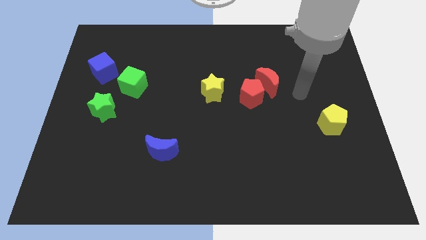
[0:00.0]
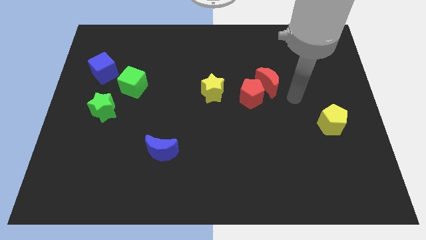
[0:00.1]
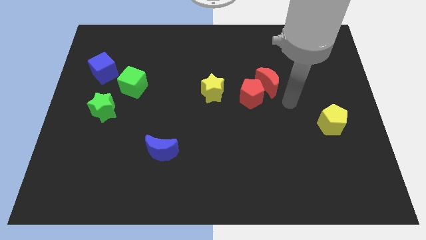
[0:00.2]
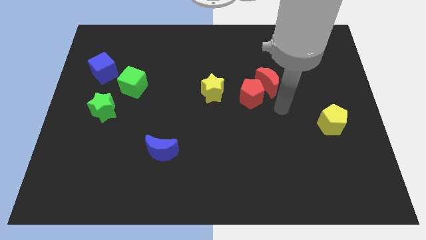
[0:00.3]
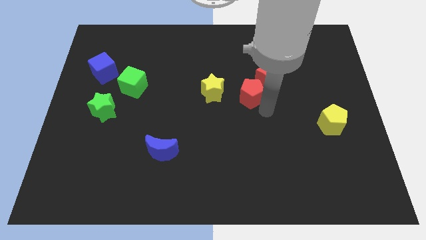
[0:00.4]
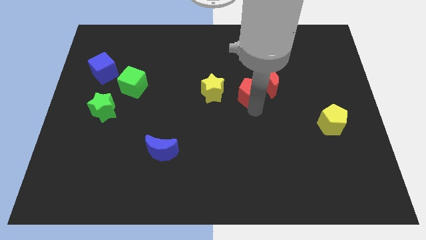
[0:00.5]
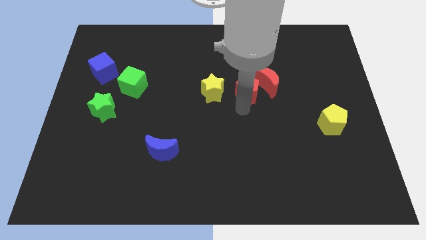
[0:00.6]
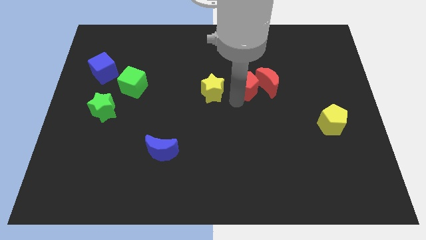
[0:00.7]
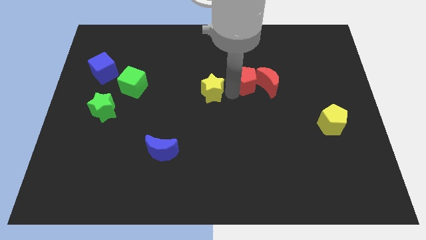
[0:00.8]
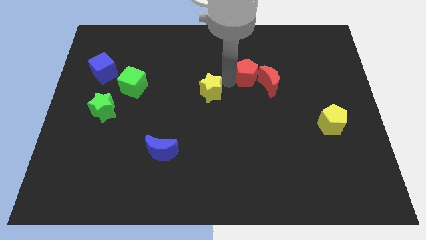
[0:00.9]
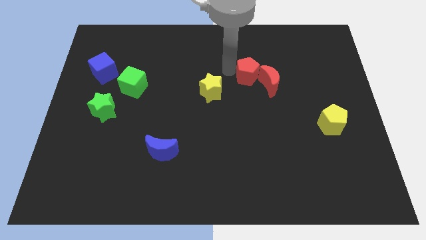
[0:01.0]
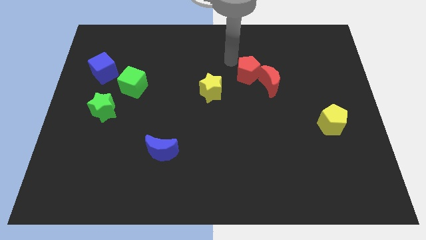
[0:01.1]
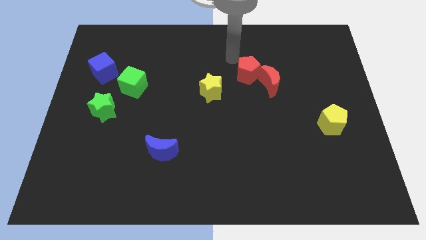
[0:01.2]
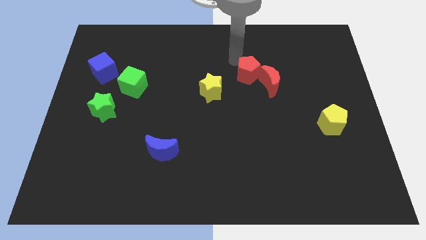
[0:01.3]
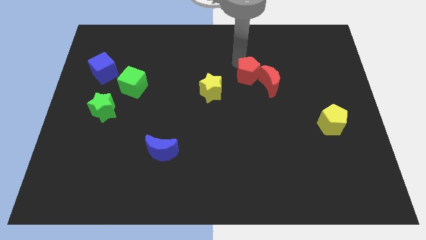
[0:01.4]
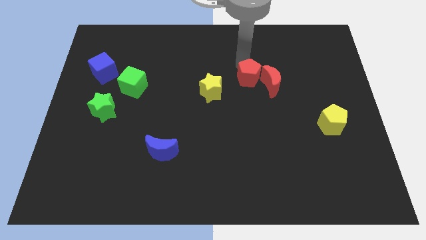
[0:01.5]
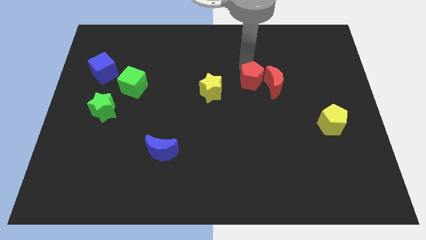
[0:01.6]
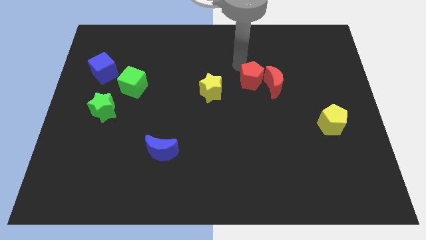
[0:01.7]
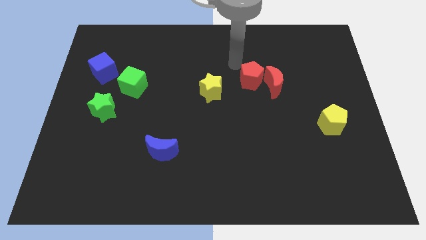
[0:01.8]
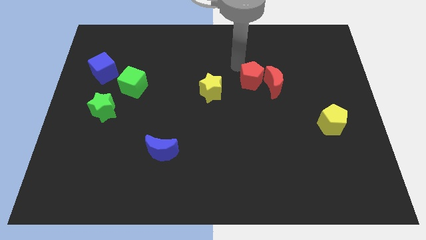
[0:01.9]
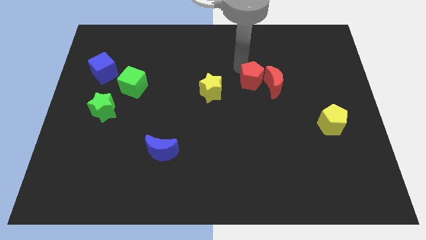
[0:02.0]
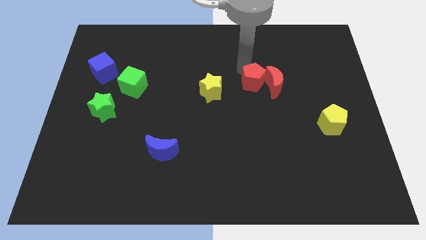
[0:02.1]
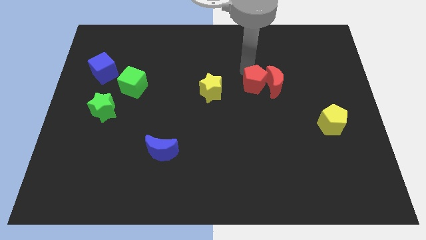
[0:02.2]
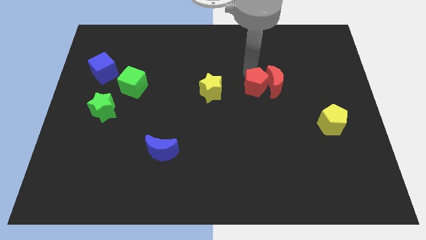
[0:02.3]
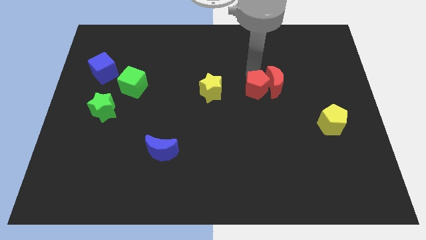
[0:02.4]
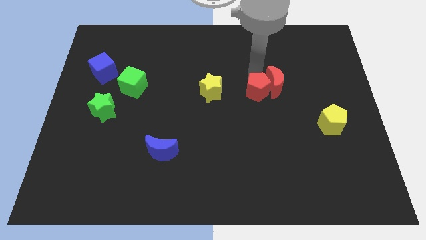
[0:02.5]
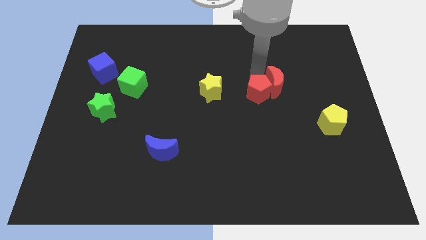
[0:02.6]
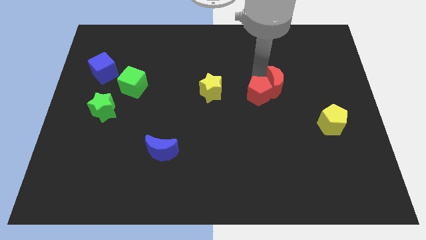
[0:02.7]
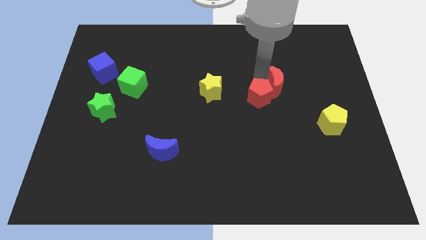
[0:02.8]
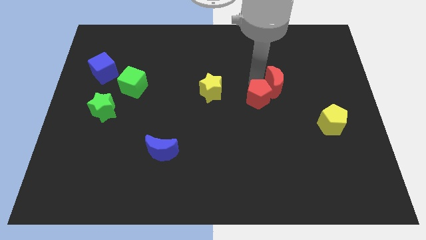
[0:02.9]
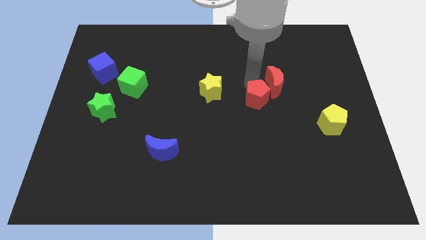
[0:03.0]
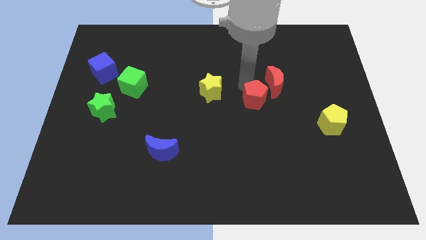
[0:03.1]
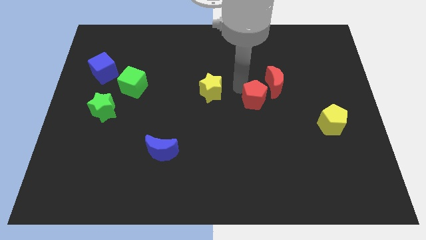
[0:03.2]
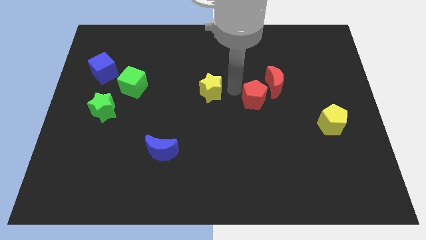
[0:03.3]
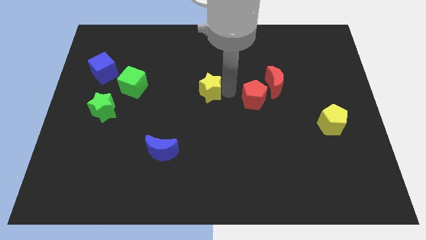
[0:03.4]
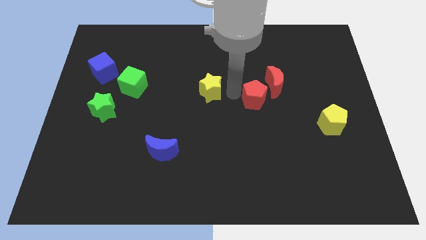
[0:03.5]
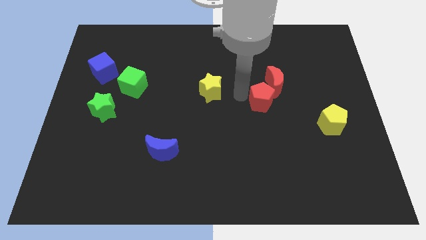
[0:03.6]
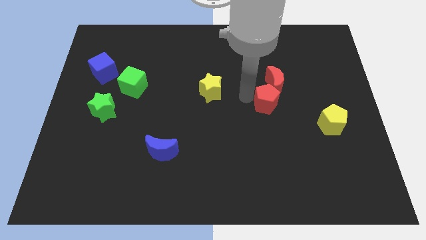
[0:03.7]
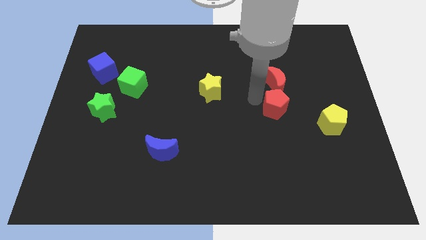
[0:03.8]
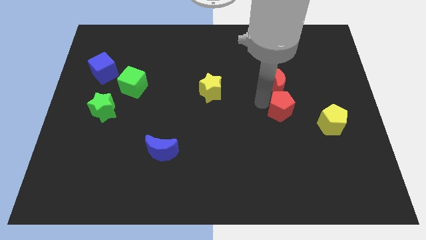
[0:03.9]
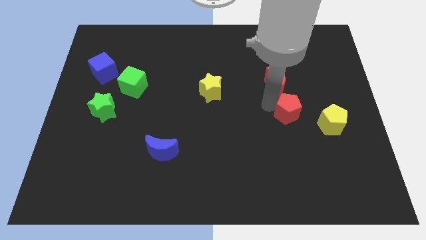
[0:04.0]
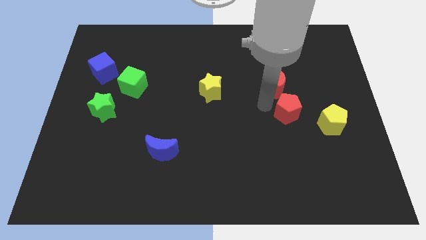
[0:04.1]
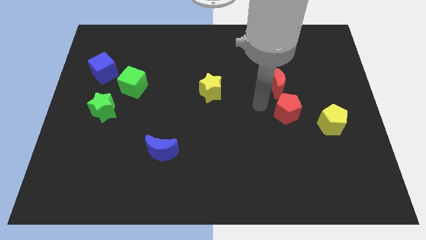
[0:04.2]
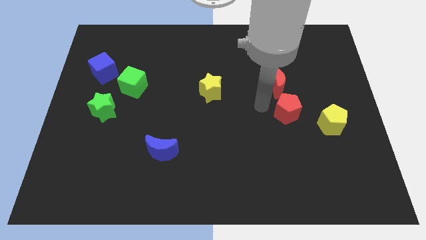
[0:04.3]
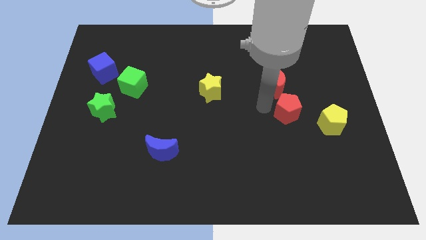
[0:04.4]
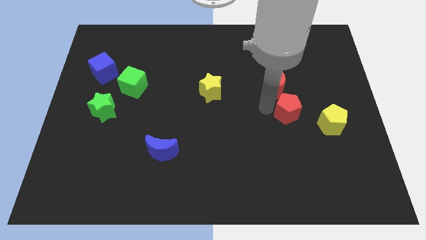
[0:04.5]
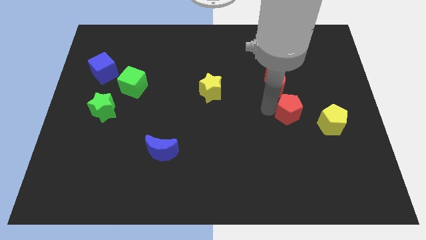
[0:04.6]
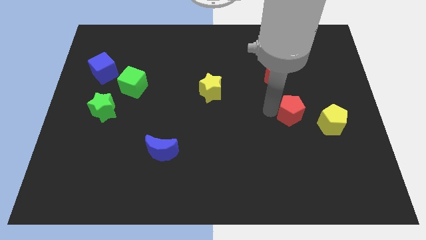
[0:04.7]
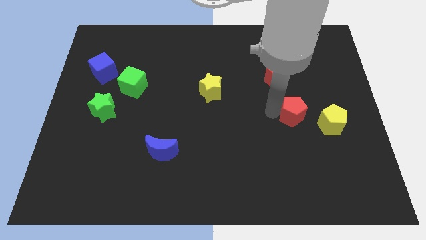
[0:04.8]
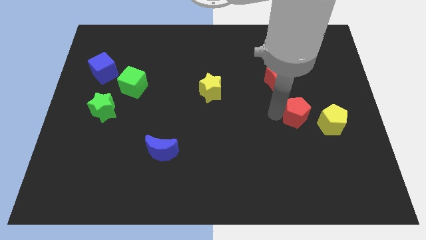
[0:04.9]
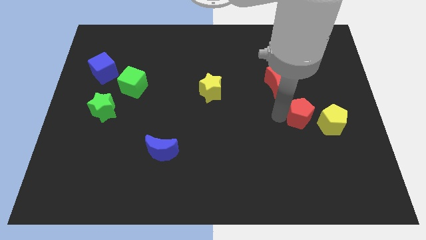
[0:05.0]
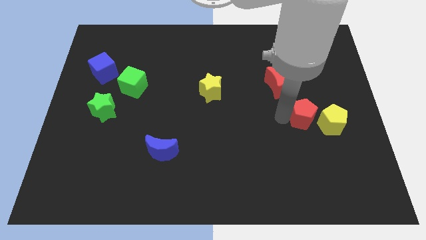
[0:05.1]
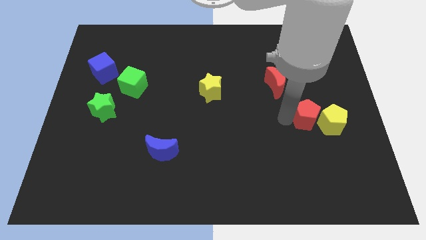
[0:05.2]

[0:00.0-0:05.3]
push the red pentagon to the yellow pentagon

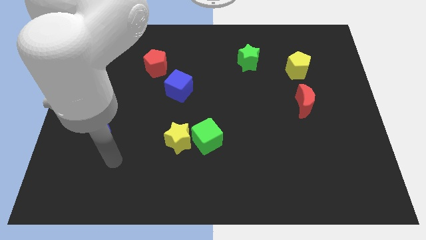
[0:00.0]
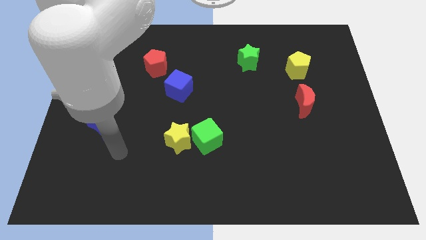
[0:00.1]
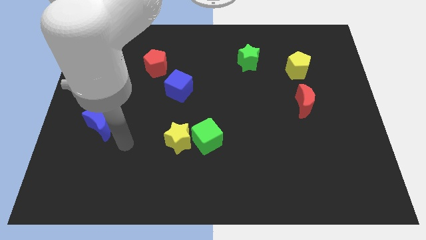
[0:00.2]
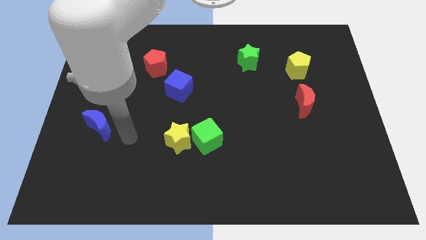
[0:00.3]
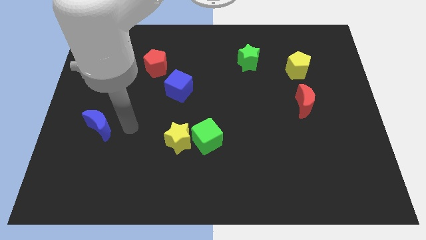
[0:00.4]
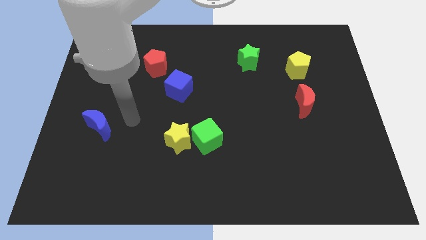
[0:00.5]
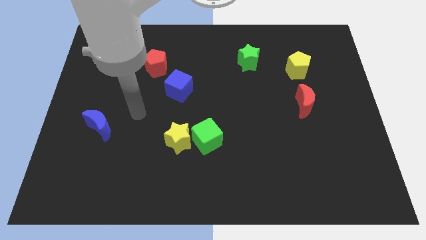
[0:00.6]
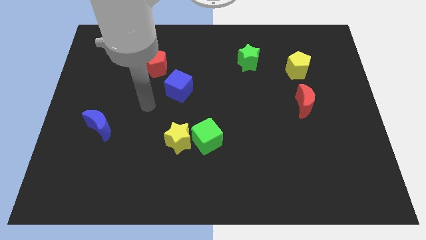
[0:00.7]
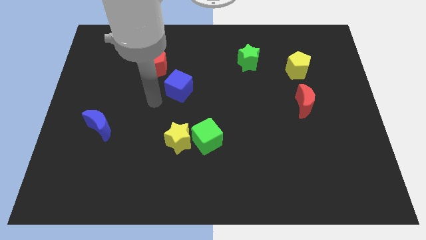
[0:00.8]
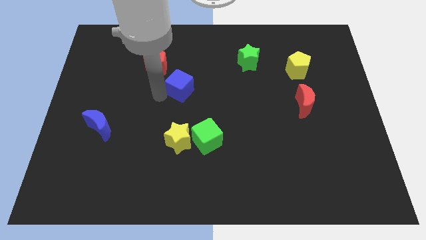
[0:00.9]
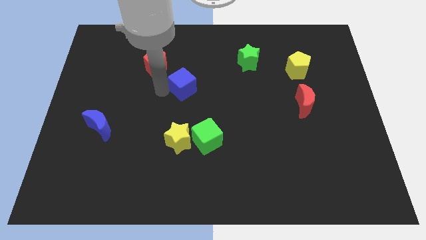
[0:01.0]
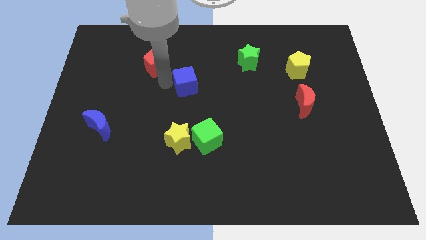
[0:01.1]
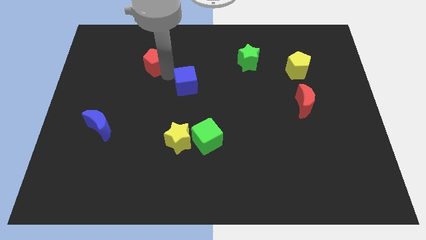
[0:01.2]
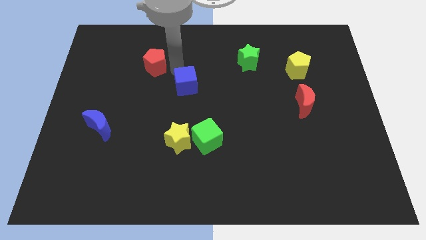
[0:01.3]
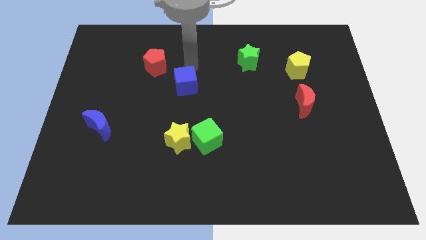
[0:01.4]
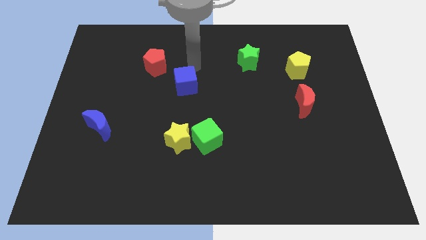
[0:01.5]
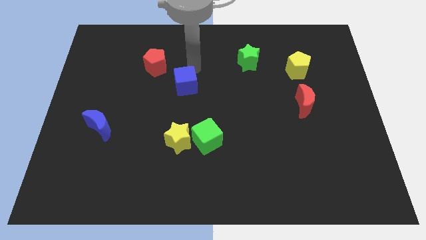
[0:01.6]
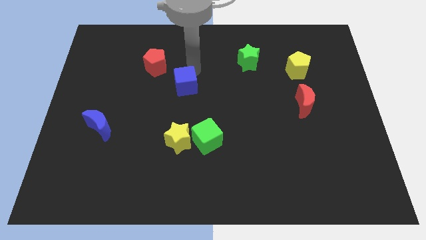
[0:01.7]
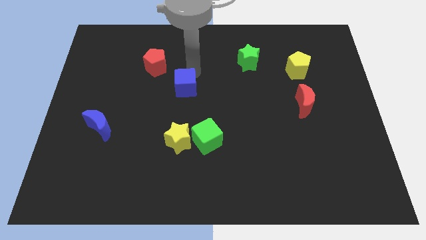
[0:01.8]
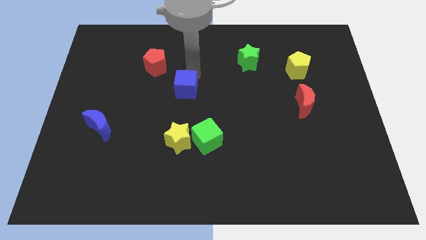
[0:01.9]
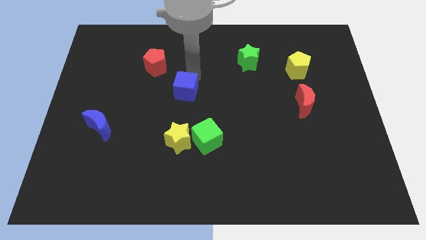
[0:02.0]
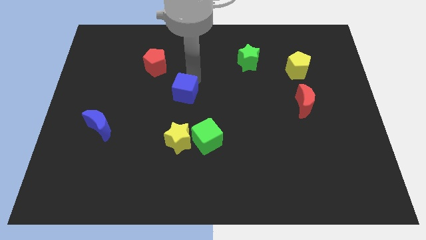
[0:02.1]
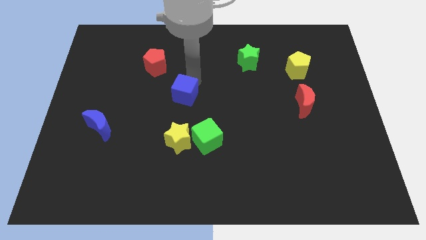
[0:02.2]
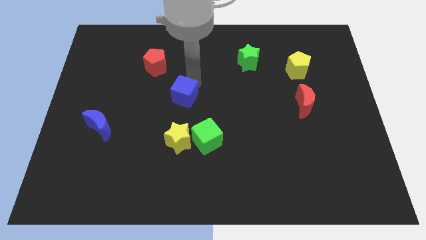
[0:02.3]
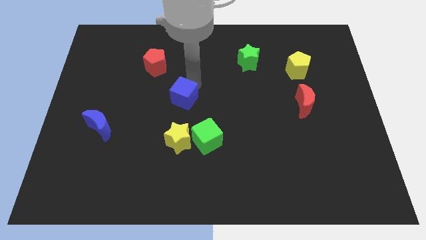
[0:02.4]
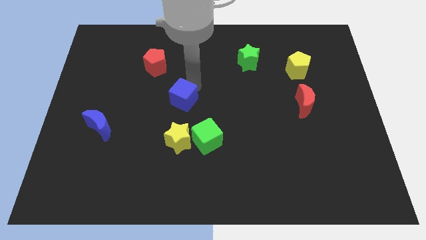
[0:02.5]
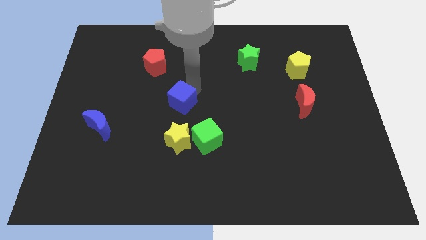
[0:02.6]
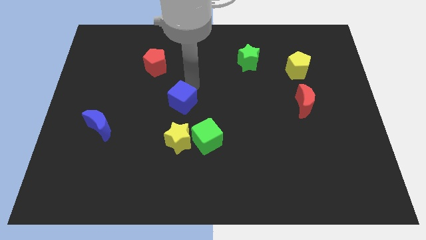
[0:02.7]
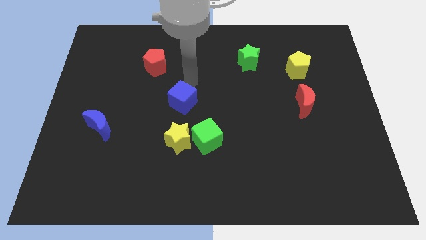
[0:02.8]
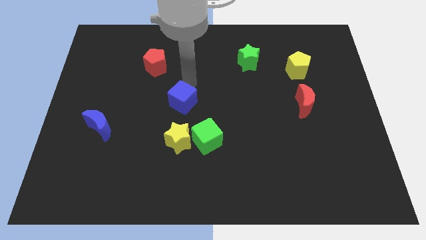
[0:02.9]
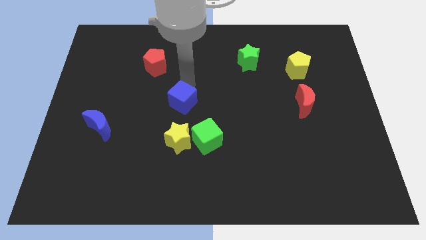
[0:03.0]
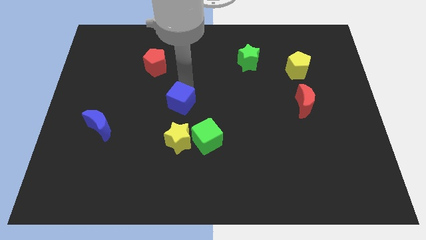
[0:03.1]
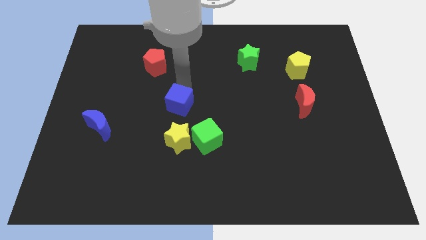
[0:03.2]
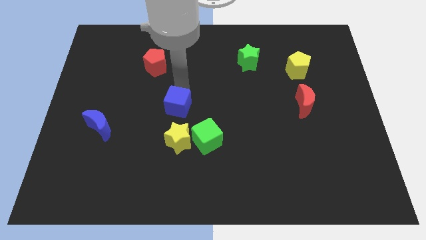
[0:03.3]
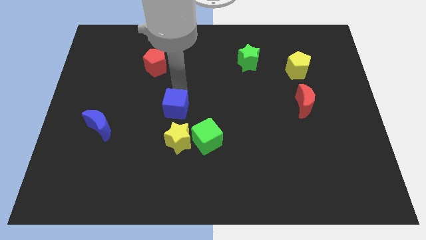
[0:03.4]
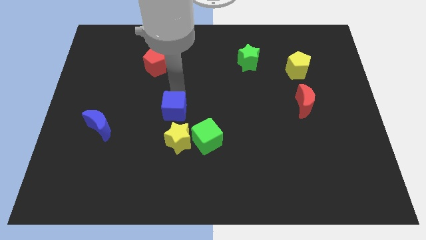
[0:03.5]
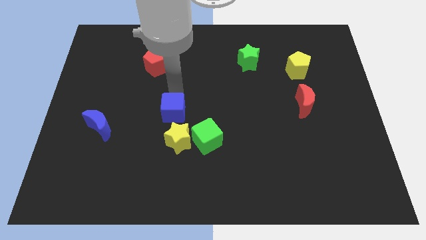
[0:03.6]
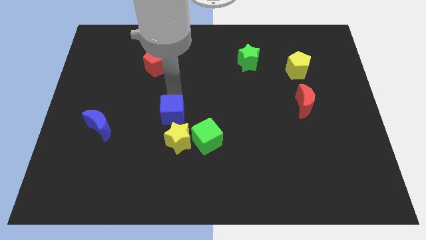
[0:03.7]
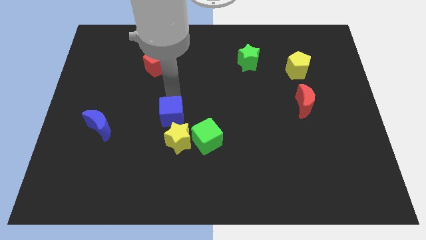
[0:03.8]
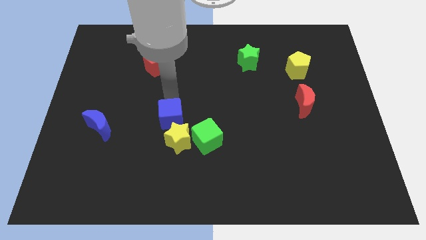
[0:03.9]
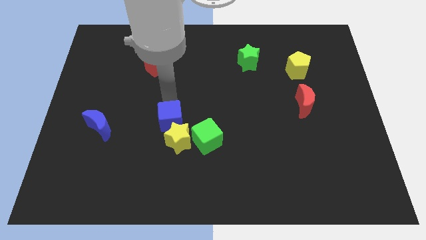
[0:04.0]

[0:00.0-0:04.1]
push the blue cube towards the yellow star
